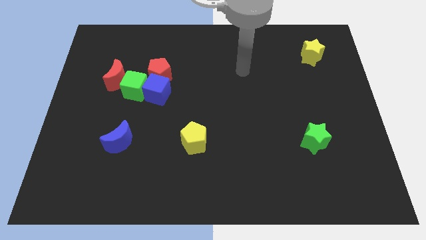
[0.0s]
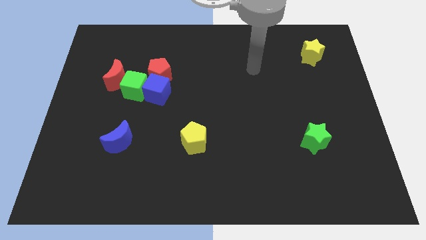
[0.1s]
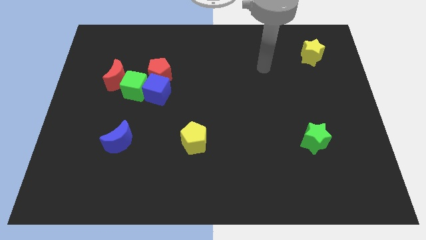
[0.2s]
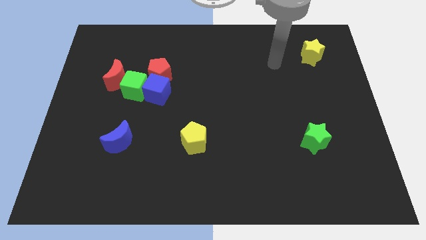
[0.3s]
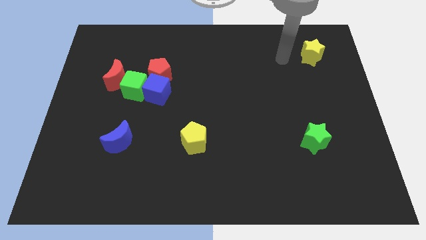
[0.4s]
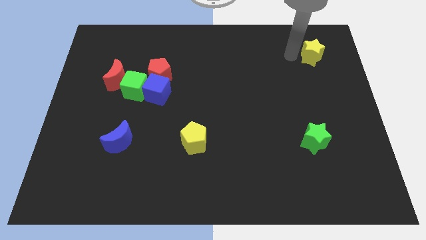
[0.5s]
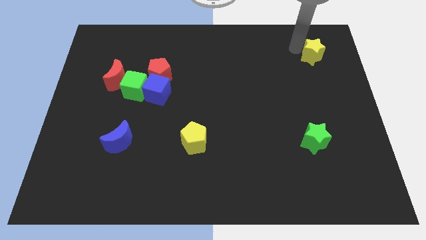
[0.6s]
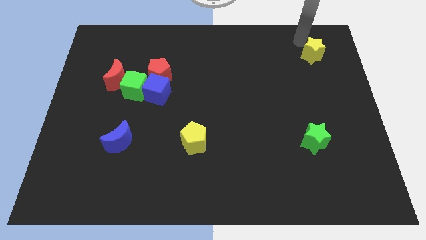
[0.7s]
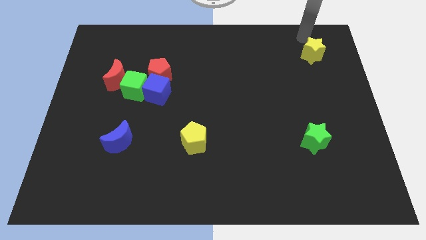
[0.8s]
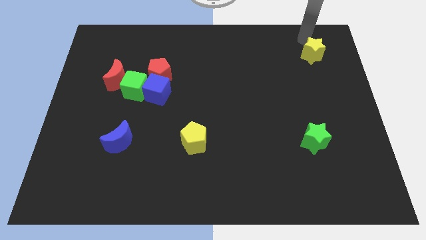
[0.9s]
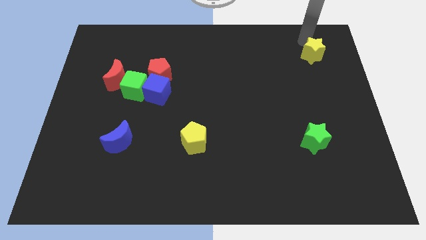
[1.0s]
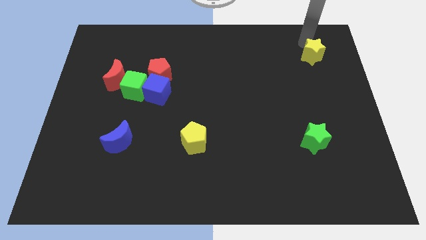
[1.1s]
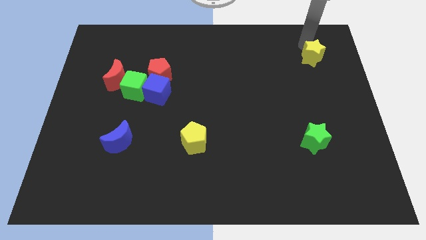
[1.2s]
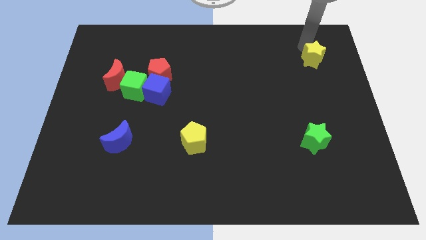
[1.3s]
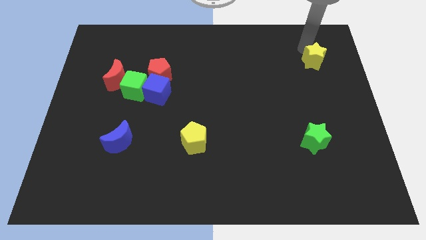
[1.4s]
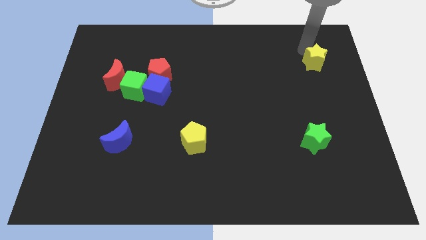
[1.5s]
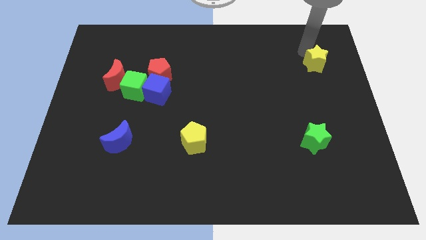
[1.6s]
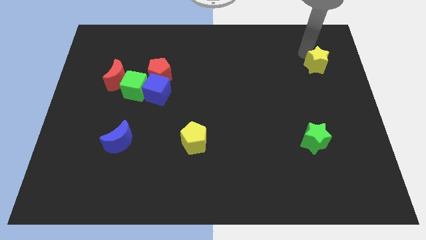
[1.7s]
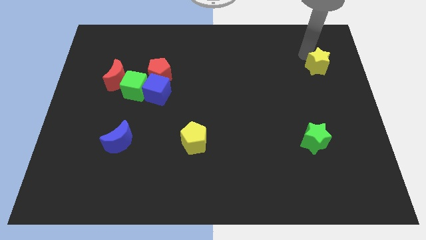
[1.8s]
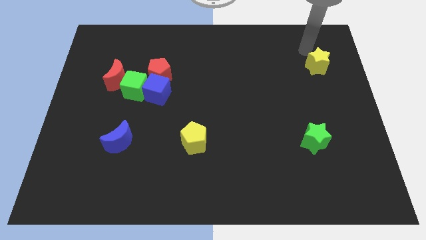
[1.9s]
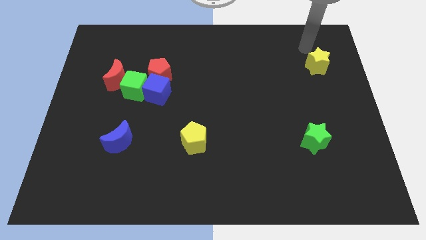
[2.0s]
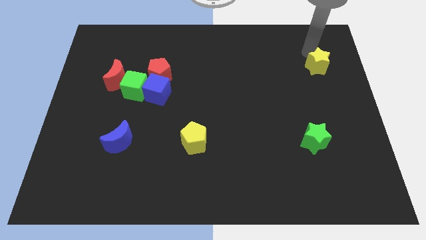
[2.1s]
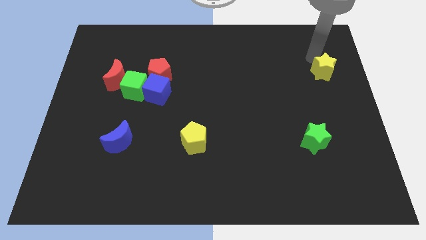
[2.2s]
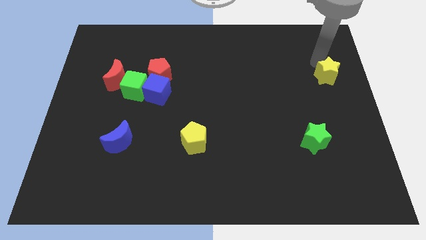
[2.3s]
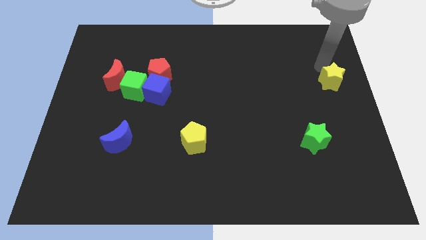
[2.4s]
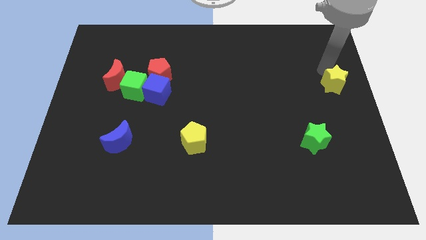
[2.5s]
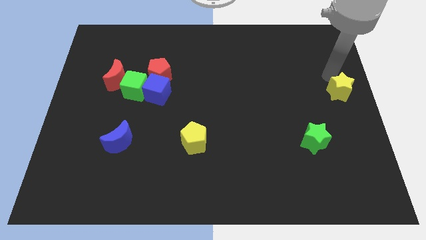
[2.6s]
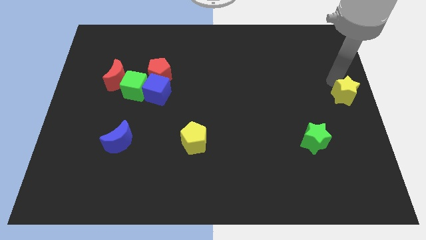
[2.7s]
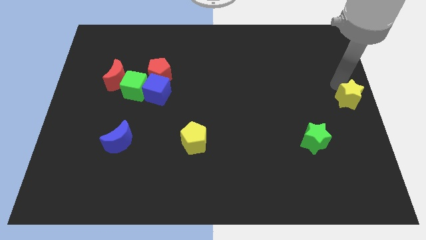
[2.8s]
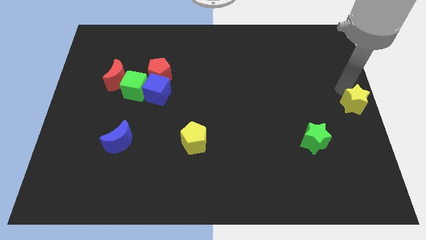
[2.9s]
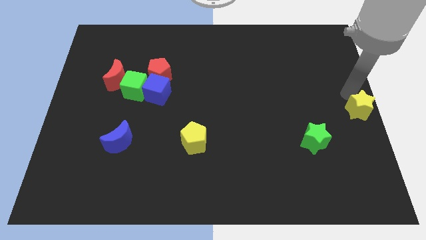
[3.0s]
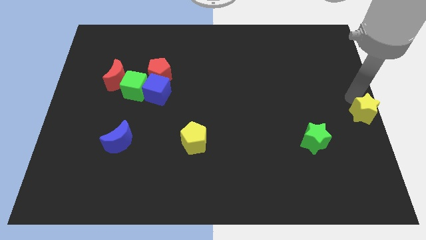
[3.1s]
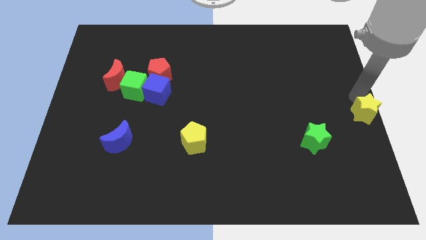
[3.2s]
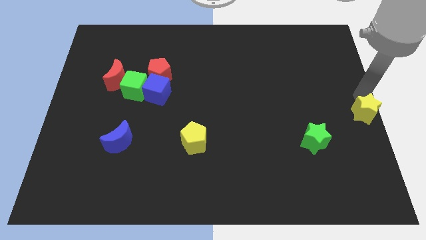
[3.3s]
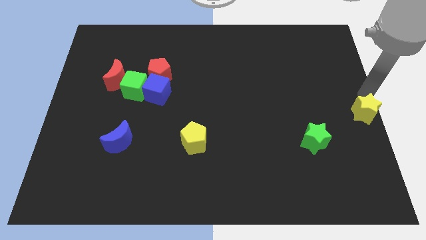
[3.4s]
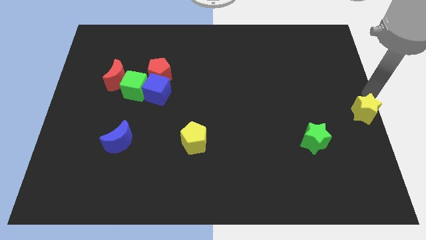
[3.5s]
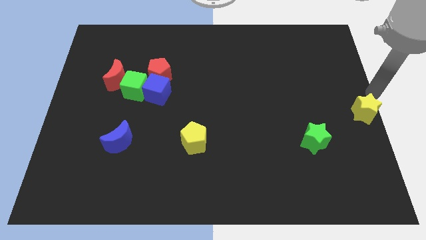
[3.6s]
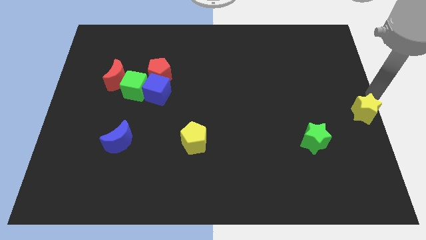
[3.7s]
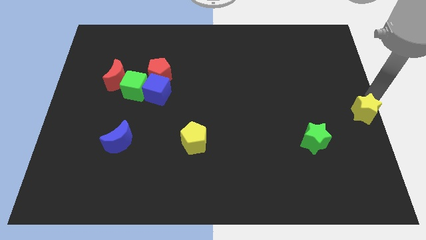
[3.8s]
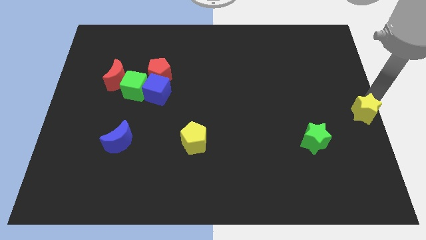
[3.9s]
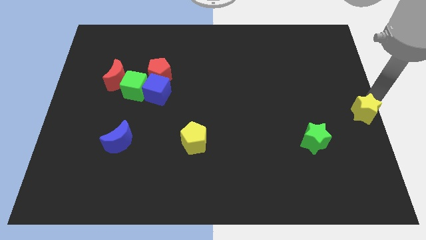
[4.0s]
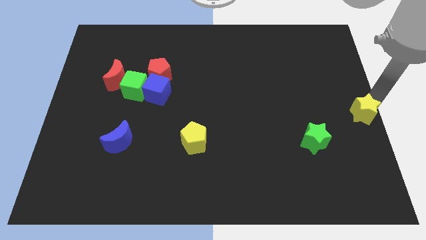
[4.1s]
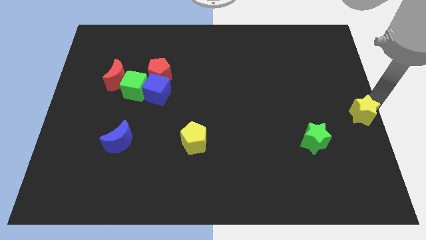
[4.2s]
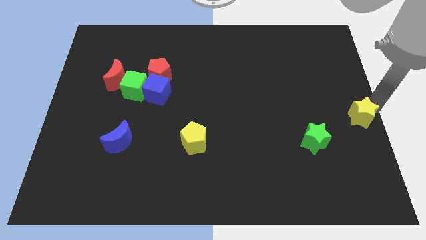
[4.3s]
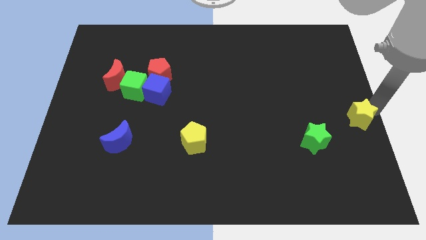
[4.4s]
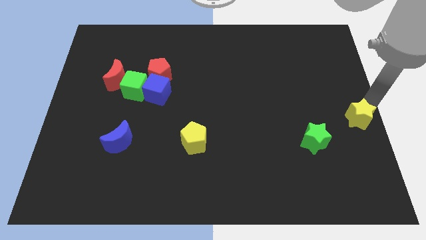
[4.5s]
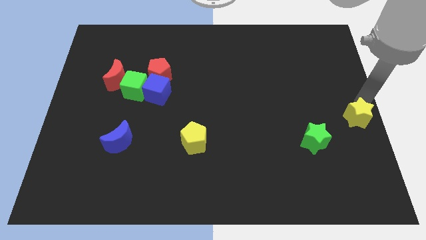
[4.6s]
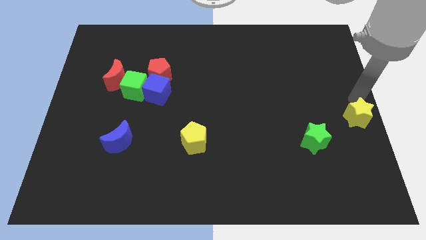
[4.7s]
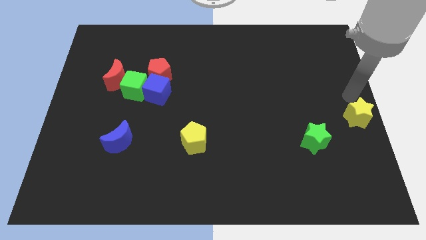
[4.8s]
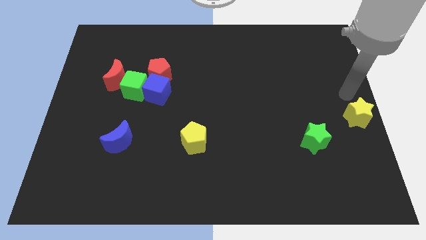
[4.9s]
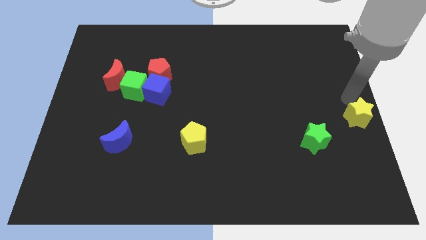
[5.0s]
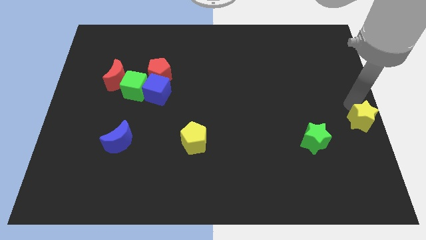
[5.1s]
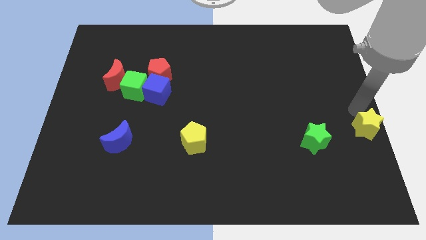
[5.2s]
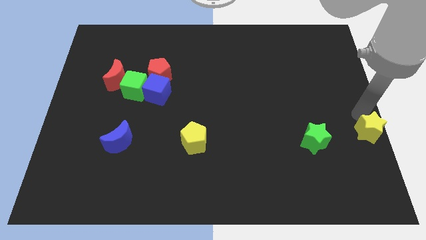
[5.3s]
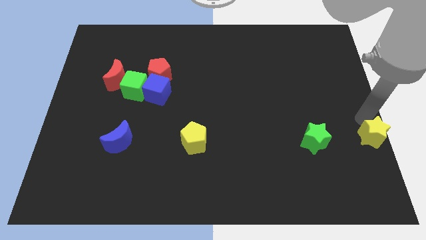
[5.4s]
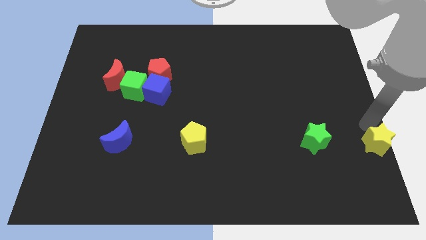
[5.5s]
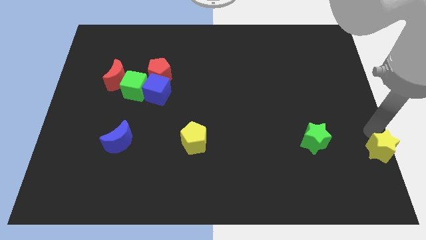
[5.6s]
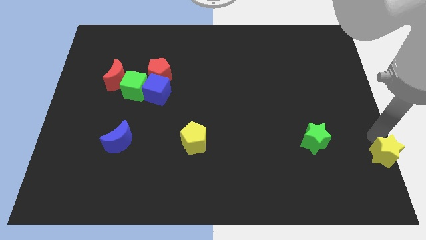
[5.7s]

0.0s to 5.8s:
push the yellow star to the bottom right
